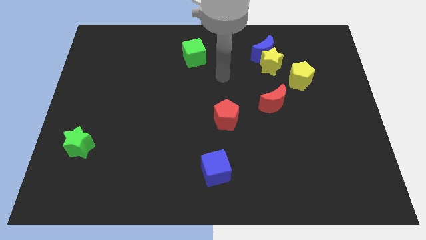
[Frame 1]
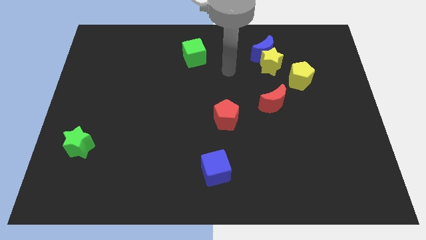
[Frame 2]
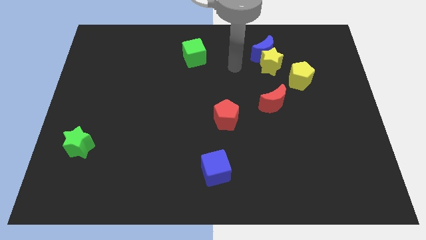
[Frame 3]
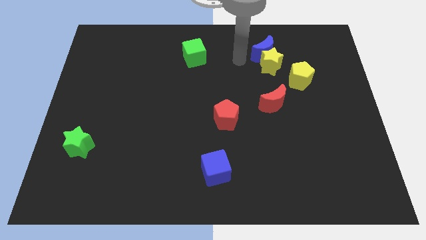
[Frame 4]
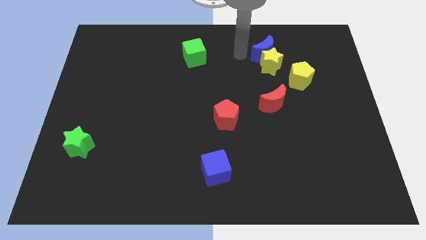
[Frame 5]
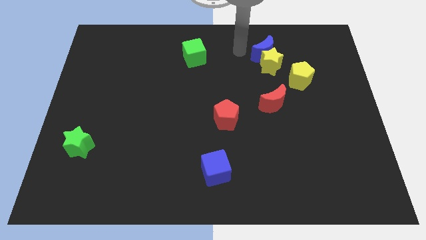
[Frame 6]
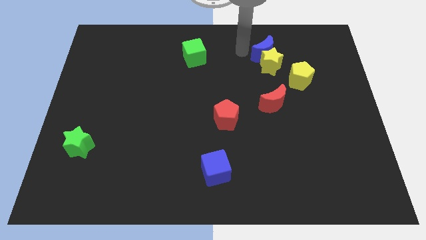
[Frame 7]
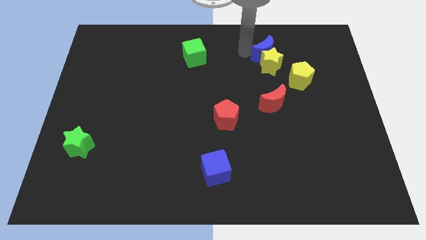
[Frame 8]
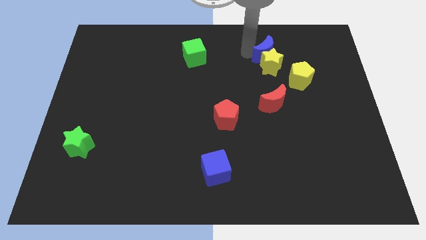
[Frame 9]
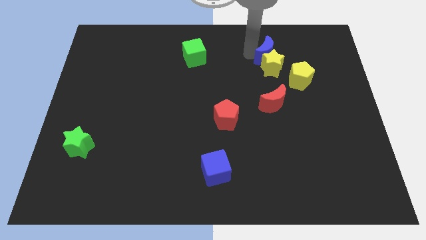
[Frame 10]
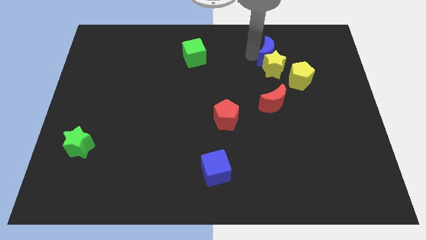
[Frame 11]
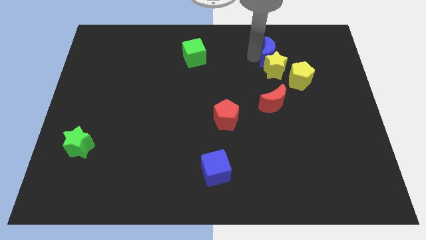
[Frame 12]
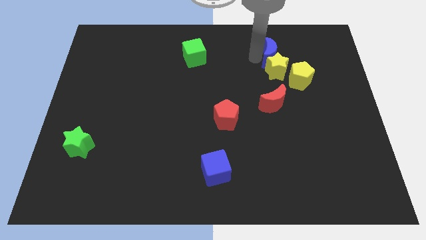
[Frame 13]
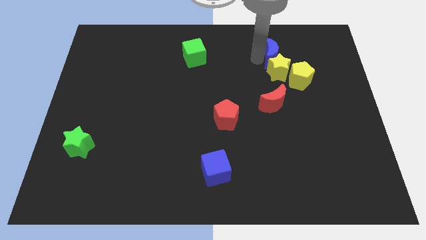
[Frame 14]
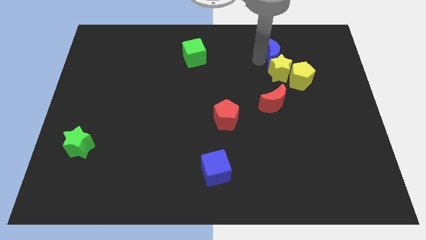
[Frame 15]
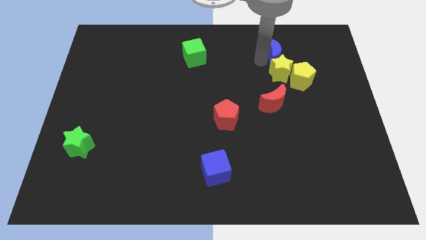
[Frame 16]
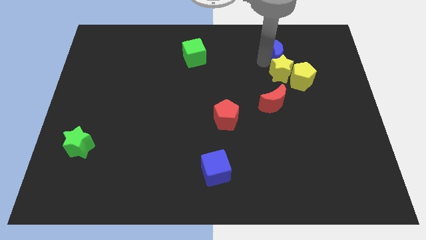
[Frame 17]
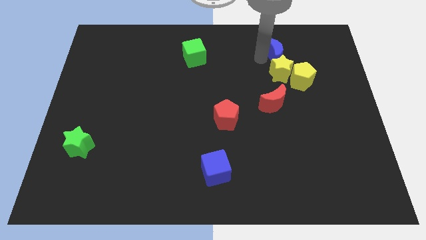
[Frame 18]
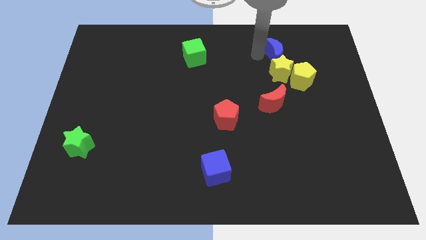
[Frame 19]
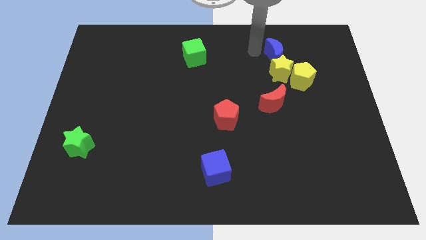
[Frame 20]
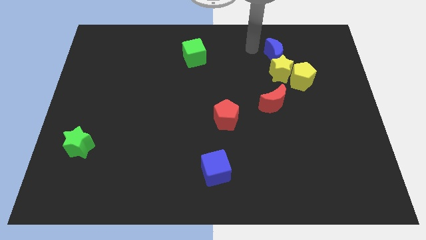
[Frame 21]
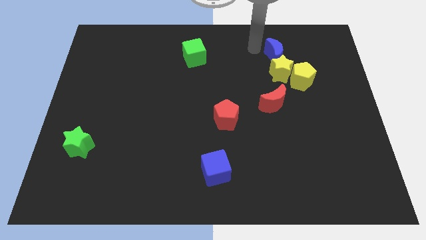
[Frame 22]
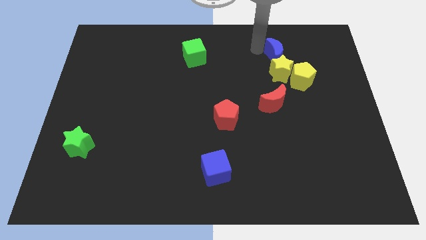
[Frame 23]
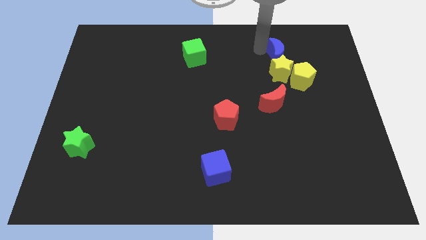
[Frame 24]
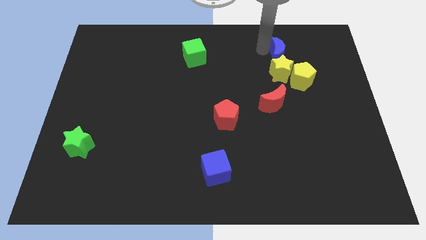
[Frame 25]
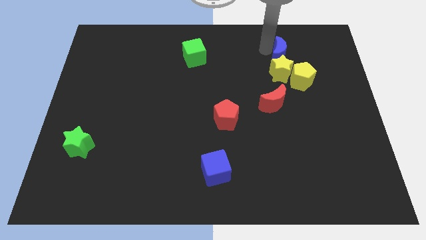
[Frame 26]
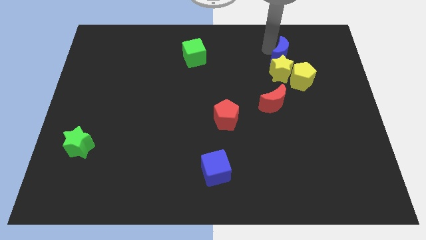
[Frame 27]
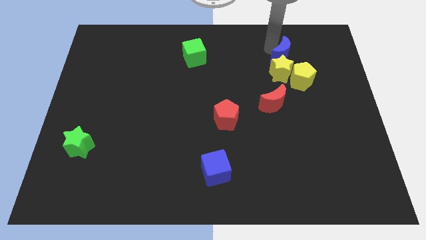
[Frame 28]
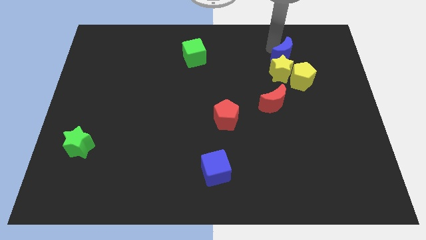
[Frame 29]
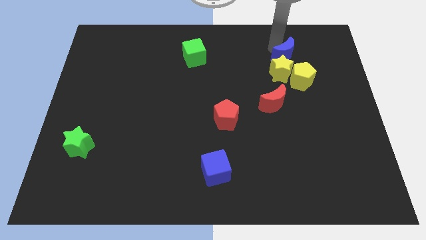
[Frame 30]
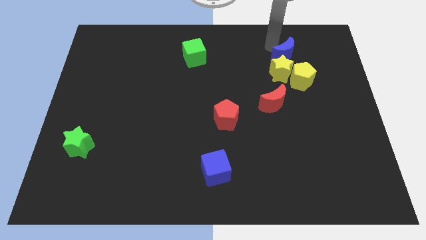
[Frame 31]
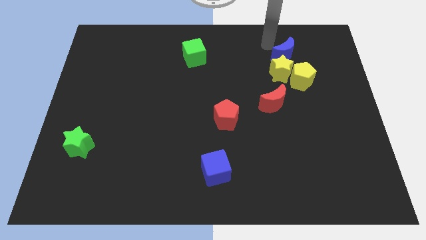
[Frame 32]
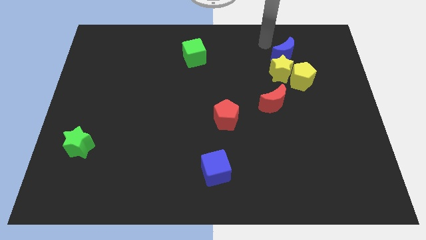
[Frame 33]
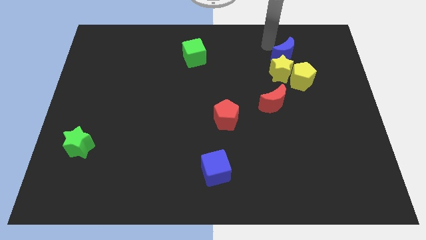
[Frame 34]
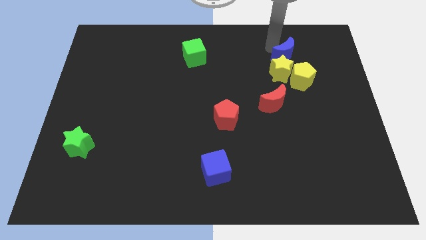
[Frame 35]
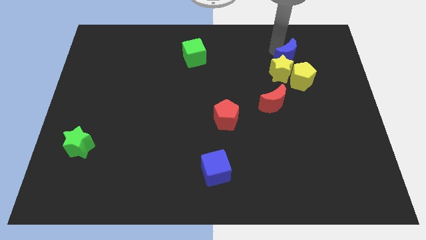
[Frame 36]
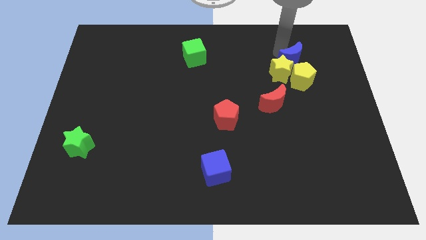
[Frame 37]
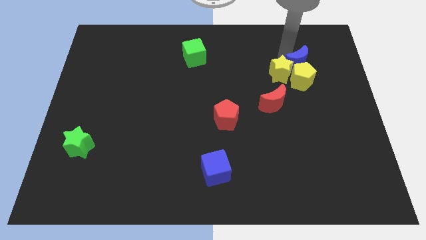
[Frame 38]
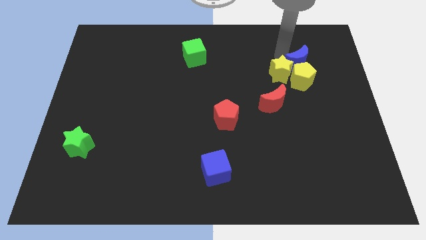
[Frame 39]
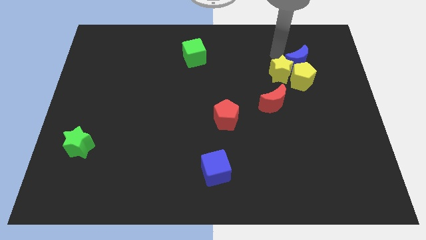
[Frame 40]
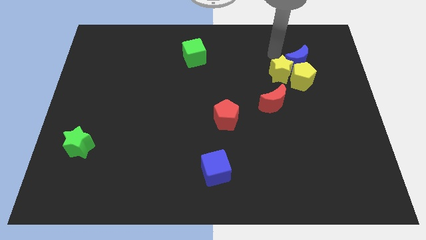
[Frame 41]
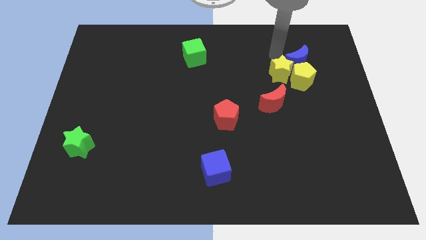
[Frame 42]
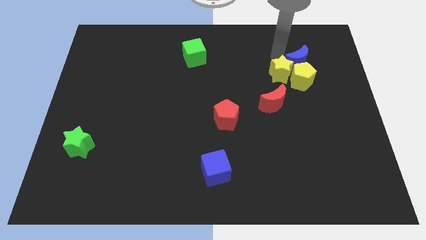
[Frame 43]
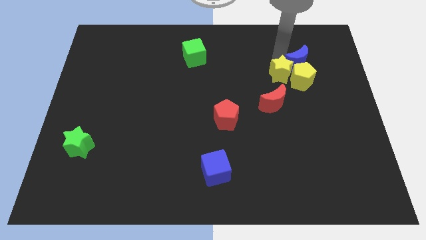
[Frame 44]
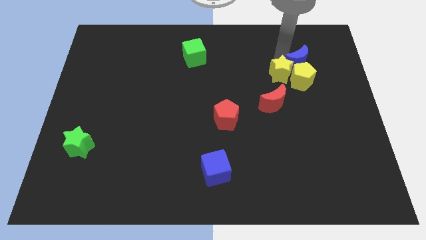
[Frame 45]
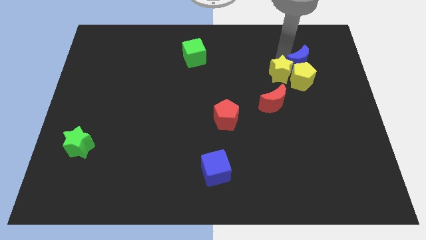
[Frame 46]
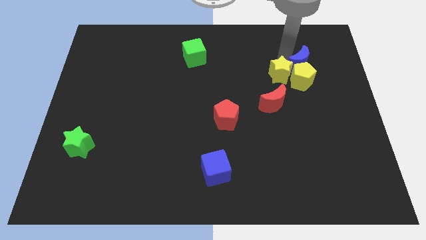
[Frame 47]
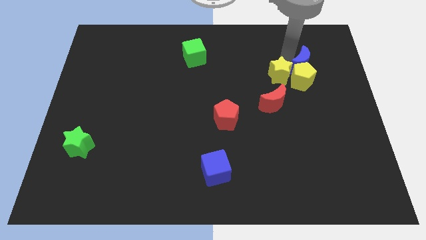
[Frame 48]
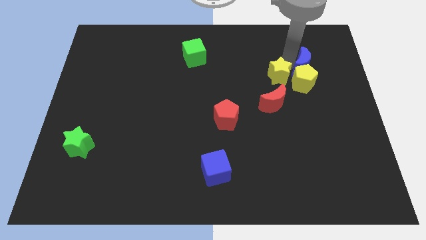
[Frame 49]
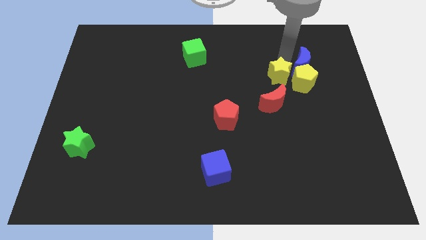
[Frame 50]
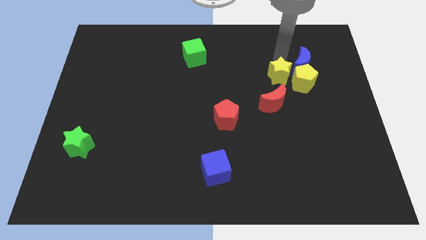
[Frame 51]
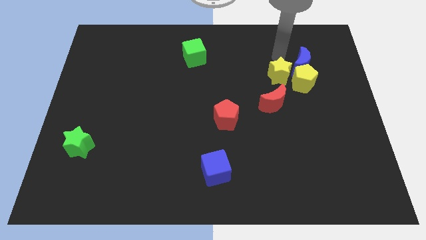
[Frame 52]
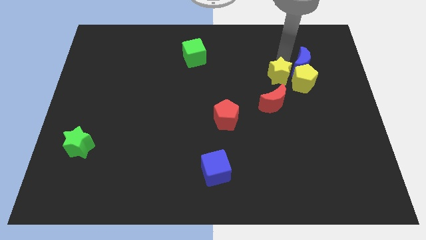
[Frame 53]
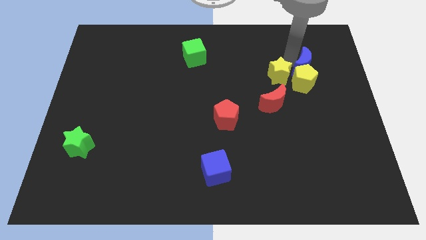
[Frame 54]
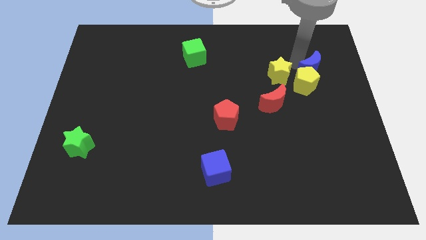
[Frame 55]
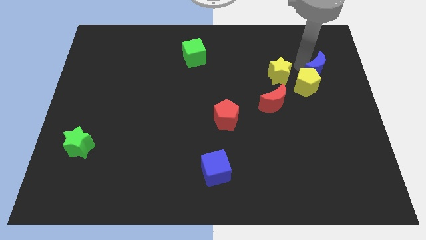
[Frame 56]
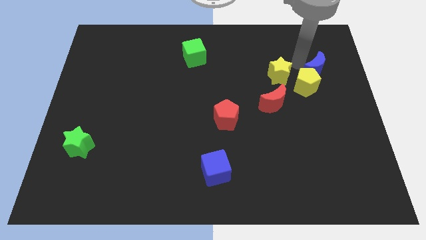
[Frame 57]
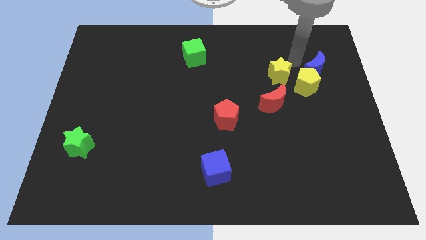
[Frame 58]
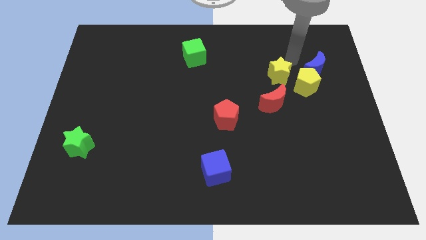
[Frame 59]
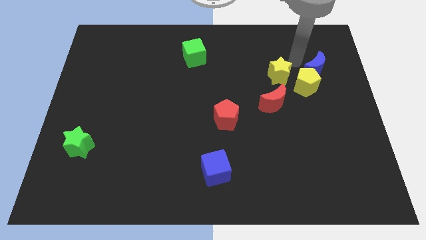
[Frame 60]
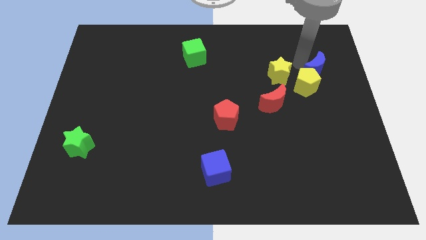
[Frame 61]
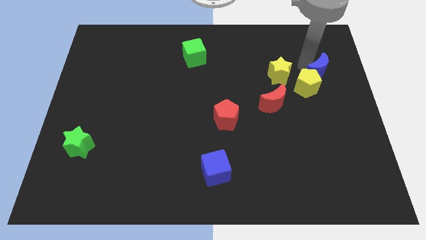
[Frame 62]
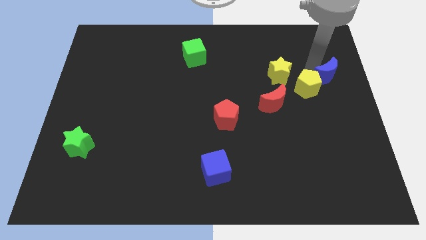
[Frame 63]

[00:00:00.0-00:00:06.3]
slide the blue moon to the center right

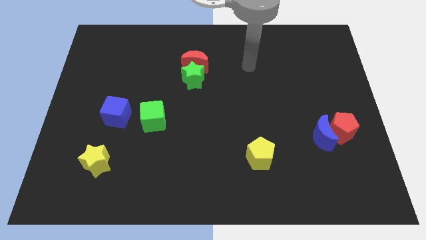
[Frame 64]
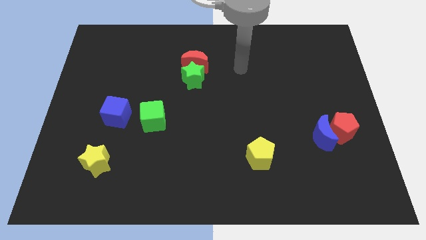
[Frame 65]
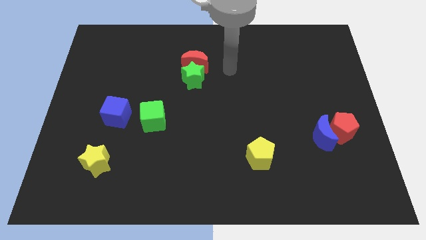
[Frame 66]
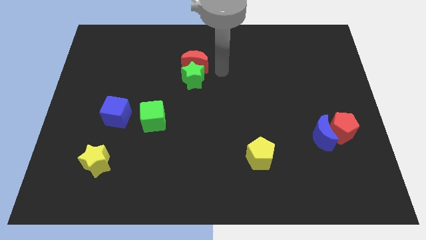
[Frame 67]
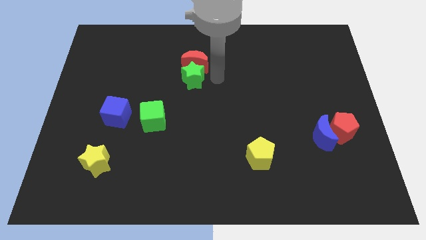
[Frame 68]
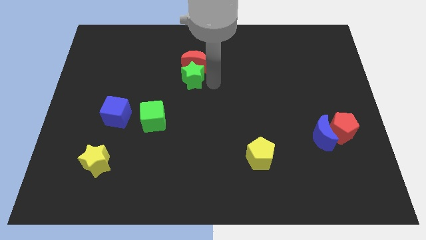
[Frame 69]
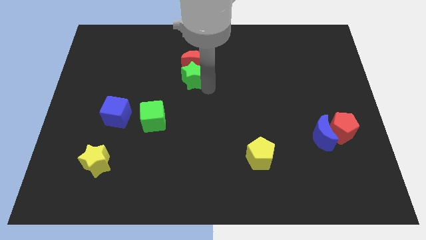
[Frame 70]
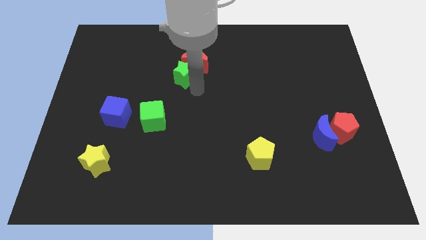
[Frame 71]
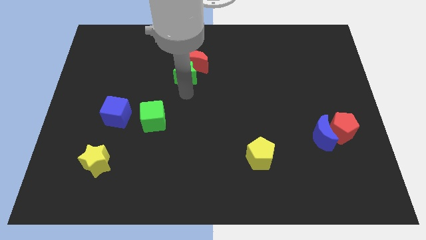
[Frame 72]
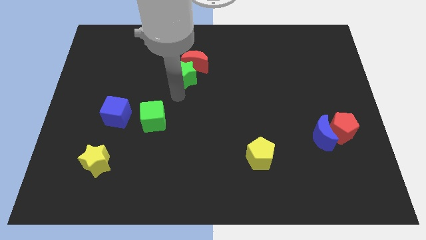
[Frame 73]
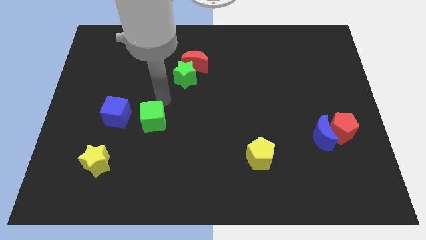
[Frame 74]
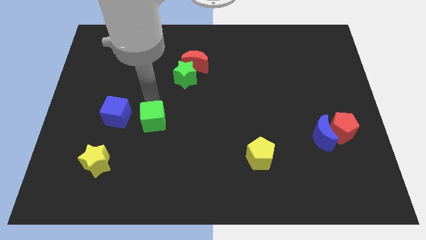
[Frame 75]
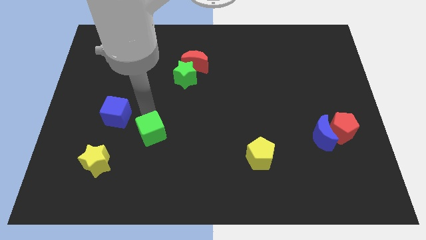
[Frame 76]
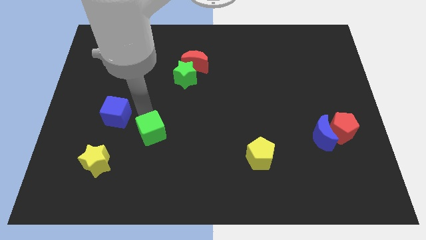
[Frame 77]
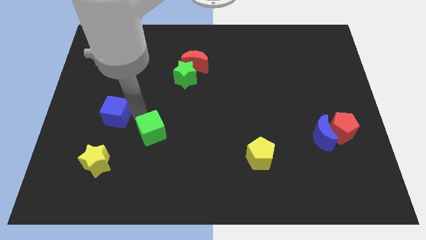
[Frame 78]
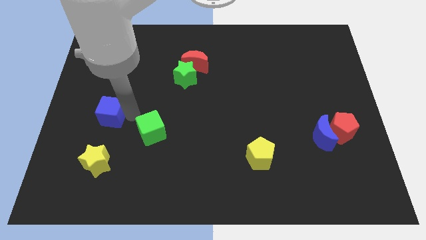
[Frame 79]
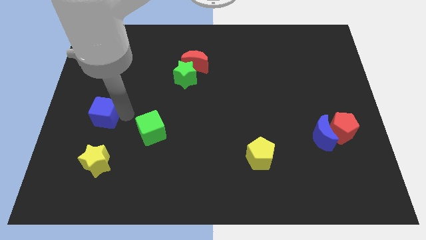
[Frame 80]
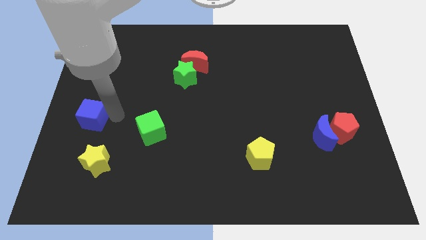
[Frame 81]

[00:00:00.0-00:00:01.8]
move the blue cube to the left side
